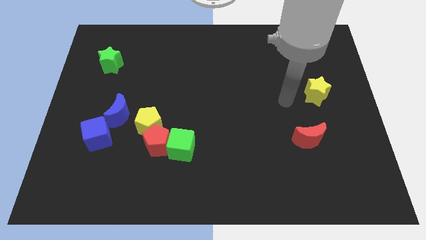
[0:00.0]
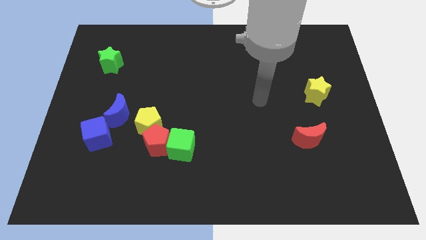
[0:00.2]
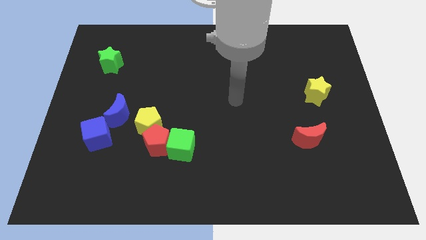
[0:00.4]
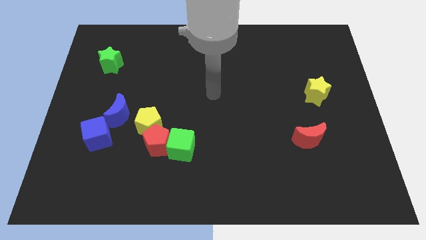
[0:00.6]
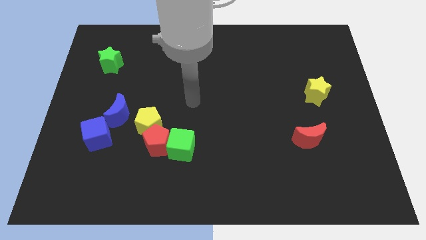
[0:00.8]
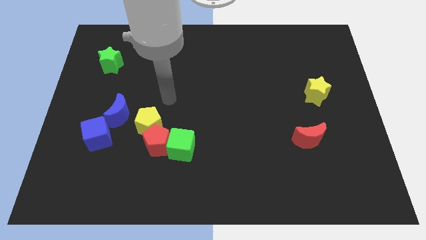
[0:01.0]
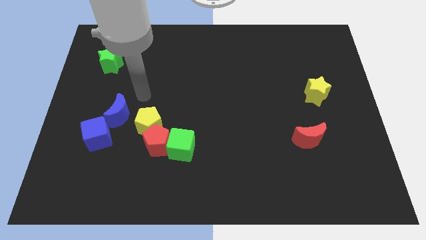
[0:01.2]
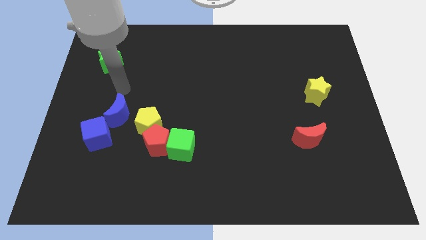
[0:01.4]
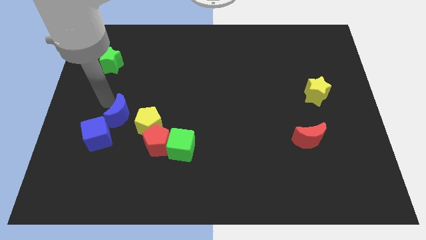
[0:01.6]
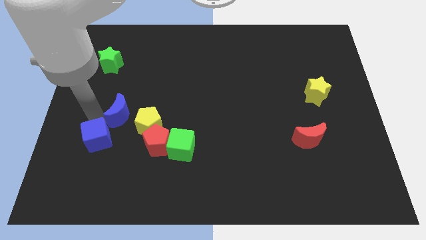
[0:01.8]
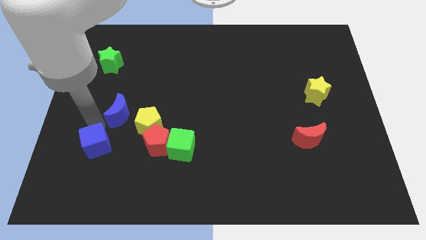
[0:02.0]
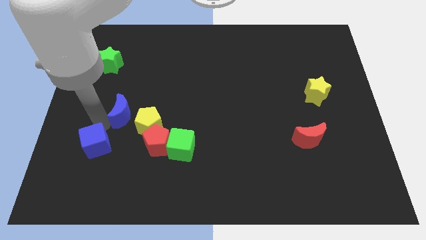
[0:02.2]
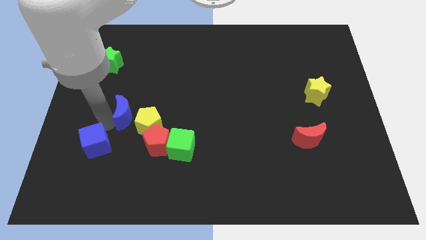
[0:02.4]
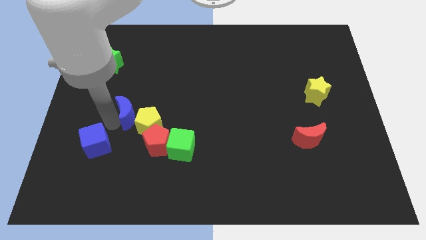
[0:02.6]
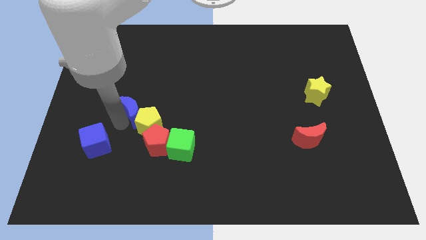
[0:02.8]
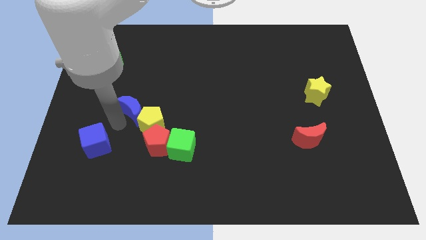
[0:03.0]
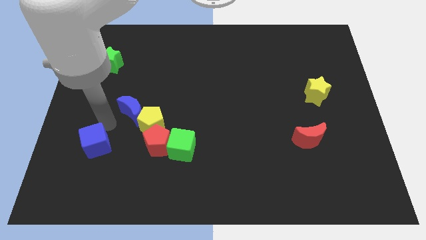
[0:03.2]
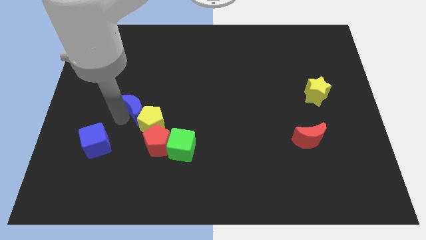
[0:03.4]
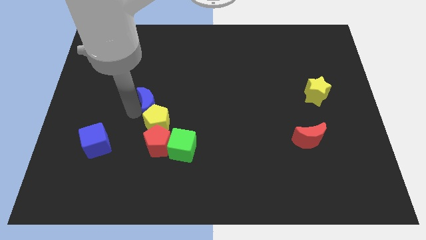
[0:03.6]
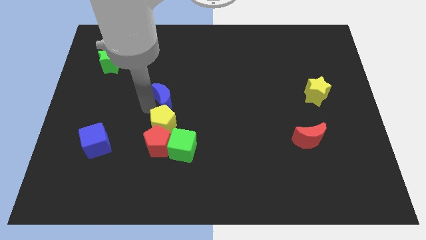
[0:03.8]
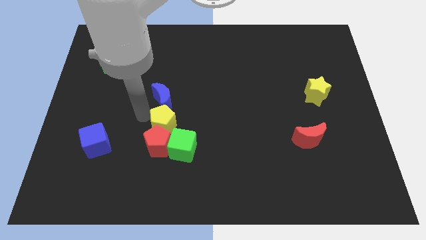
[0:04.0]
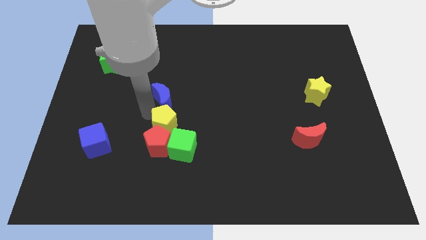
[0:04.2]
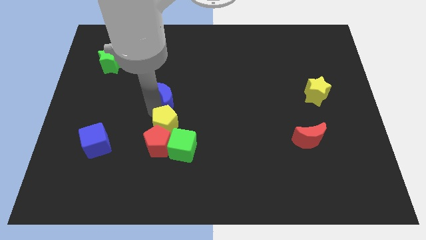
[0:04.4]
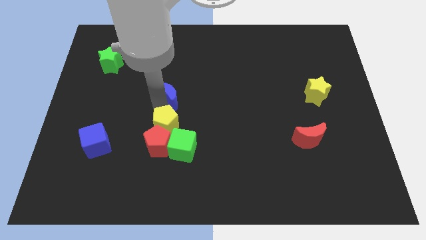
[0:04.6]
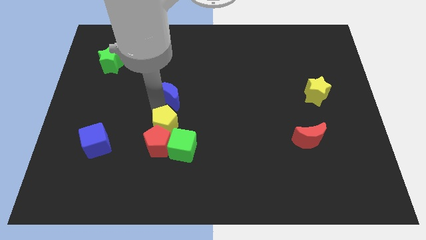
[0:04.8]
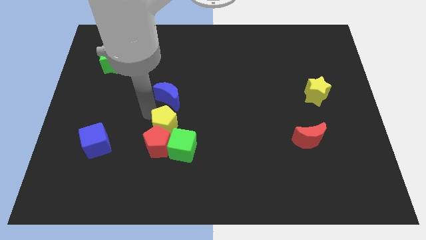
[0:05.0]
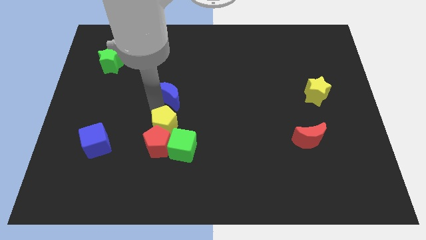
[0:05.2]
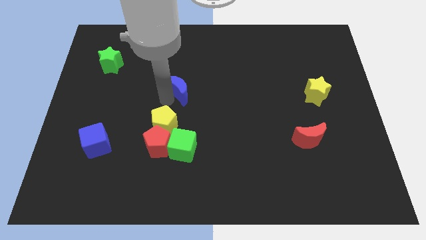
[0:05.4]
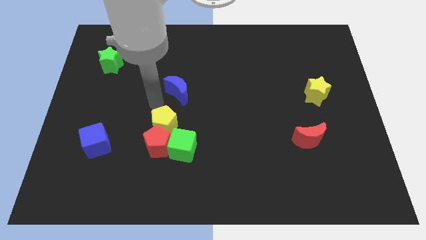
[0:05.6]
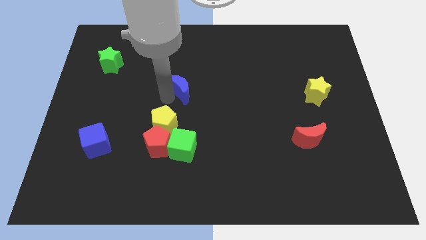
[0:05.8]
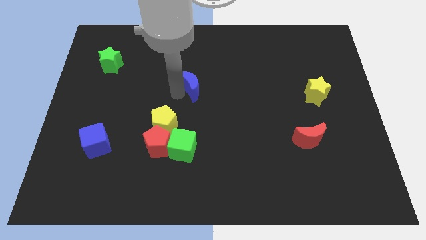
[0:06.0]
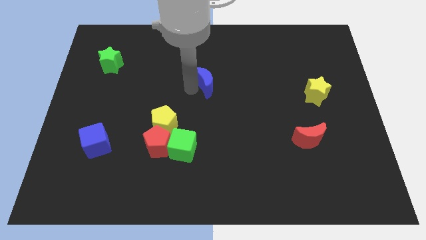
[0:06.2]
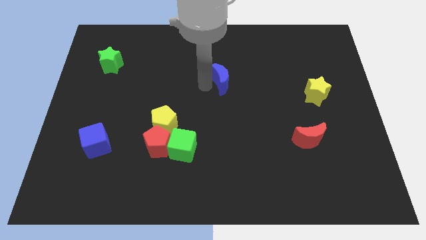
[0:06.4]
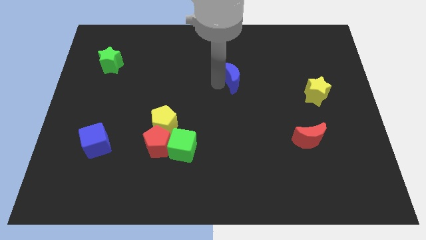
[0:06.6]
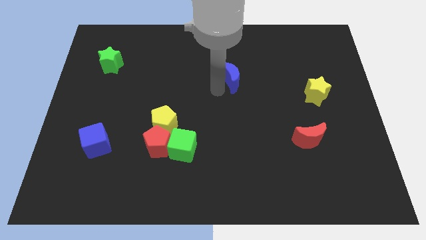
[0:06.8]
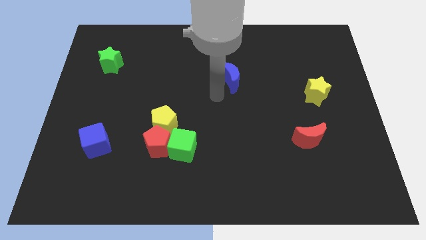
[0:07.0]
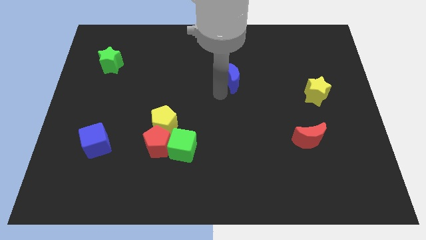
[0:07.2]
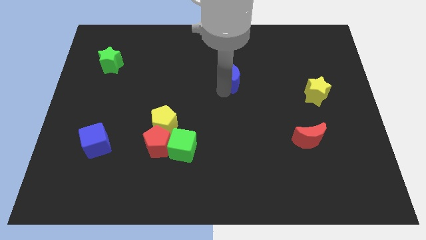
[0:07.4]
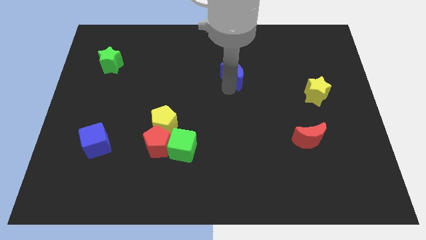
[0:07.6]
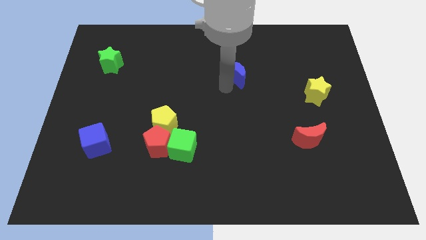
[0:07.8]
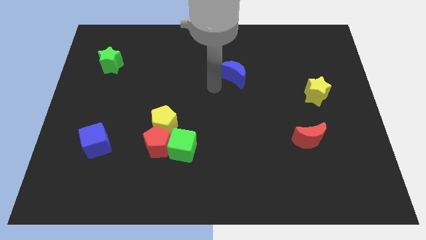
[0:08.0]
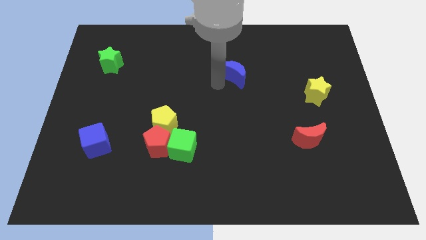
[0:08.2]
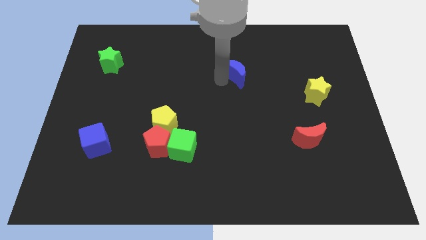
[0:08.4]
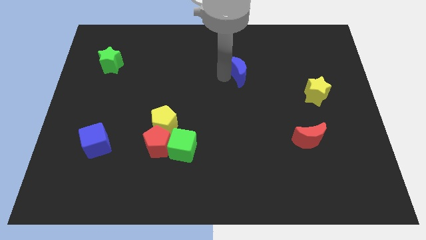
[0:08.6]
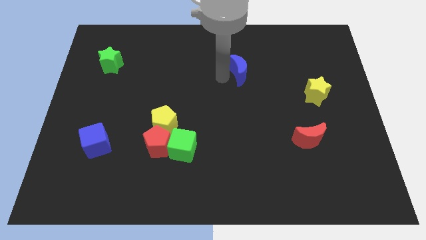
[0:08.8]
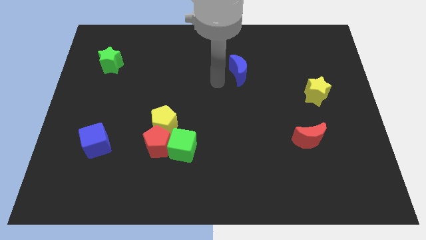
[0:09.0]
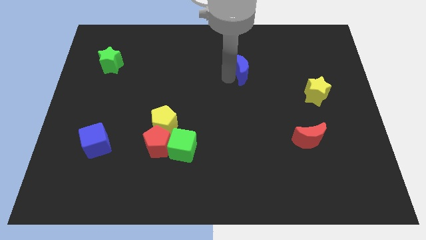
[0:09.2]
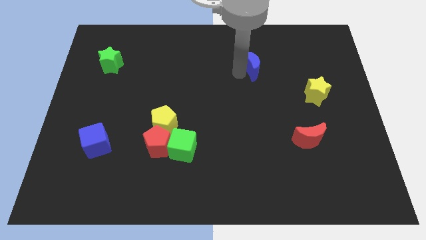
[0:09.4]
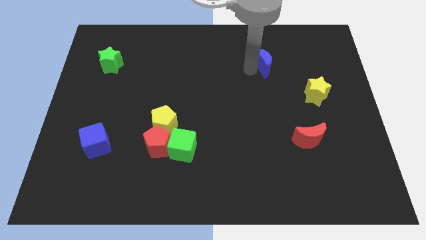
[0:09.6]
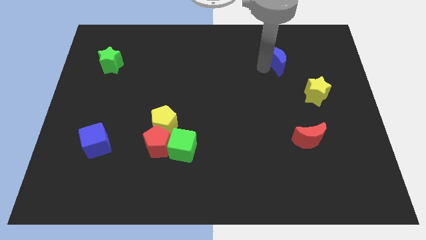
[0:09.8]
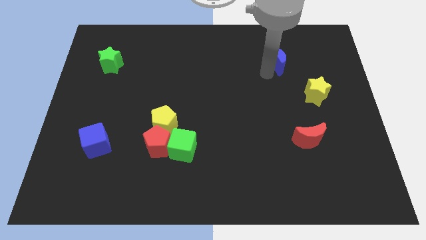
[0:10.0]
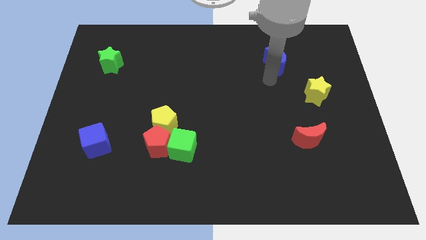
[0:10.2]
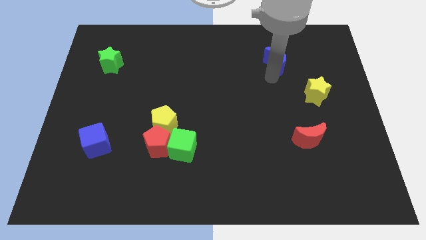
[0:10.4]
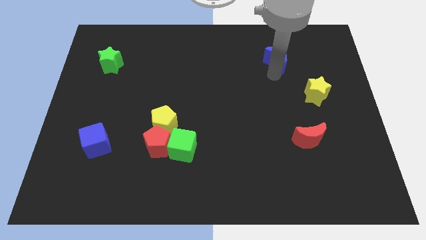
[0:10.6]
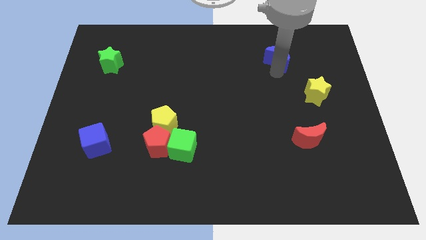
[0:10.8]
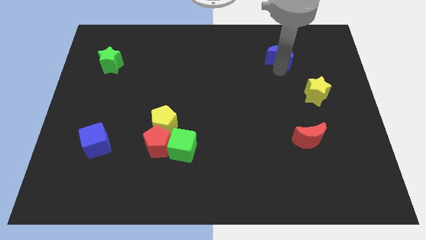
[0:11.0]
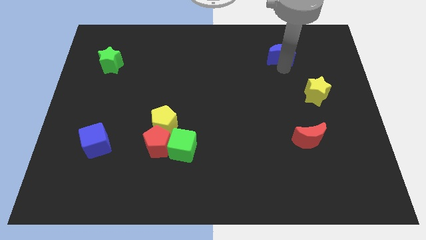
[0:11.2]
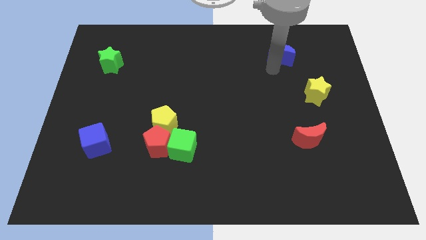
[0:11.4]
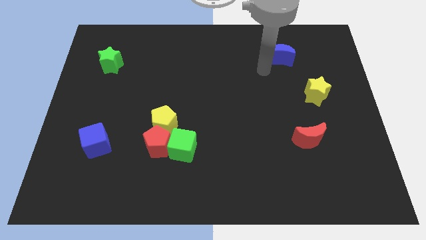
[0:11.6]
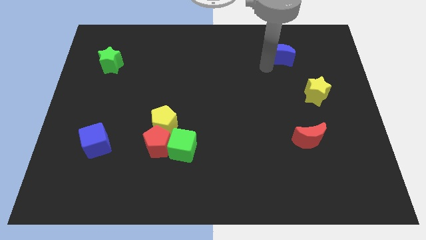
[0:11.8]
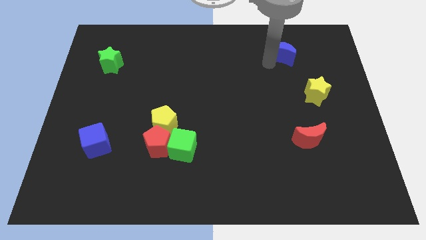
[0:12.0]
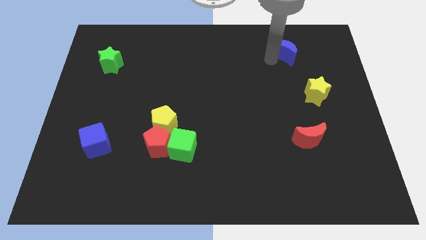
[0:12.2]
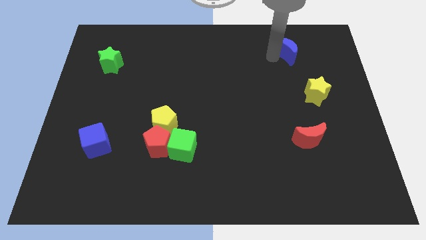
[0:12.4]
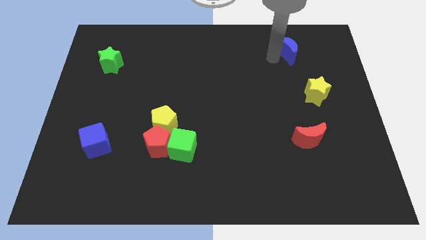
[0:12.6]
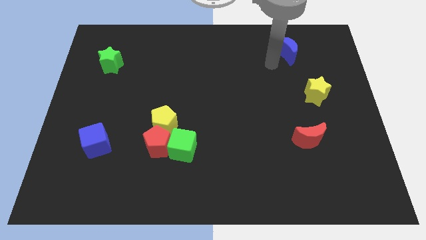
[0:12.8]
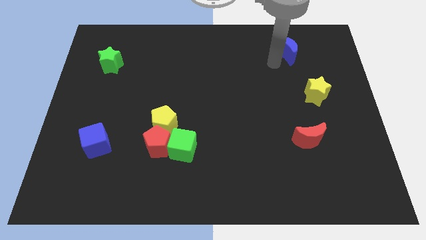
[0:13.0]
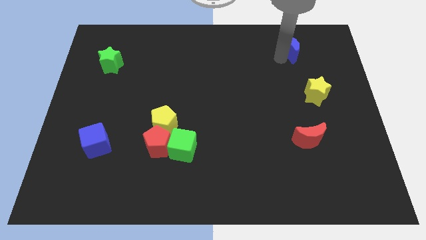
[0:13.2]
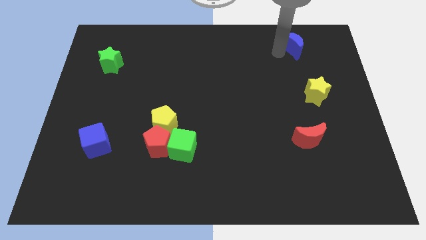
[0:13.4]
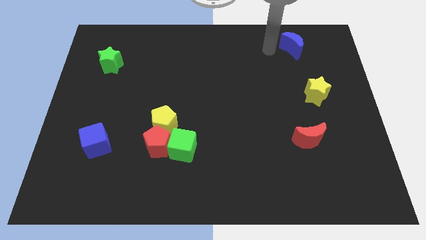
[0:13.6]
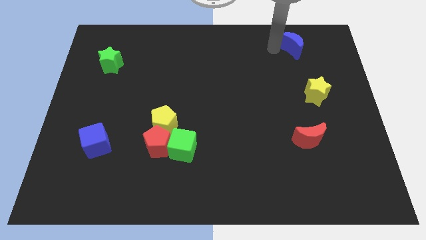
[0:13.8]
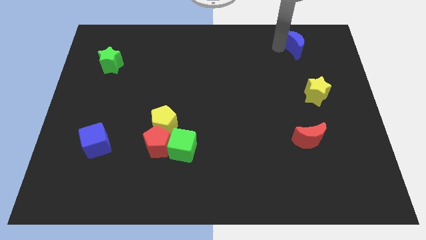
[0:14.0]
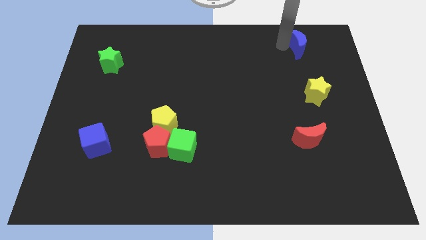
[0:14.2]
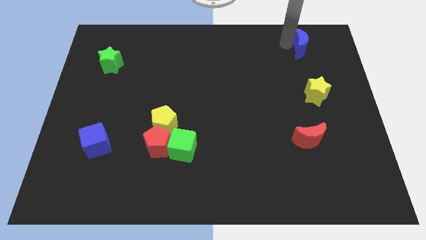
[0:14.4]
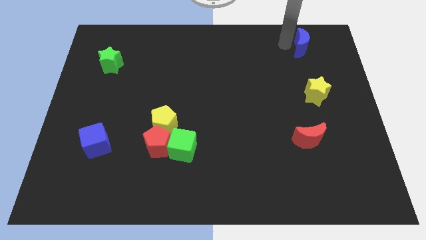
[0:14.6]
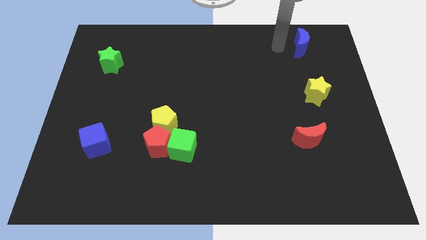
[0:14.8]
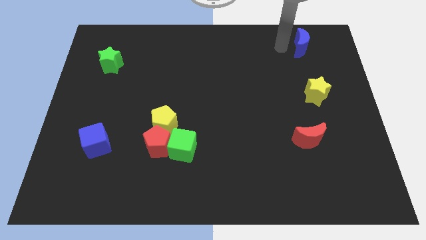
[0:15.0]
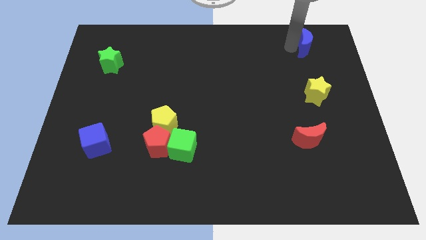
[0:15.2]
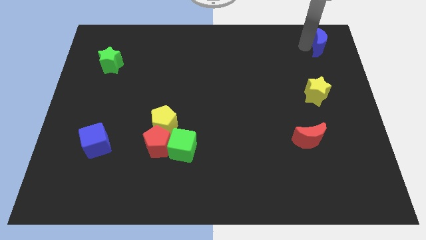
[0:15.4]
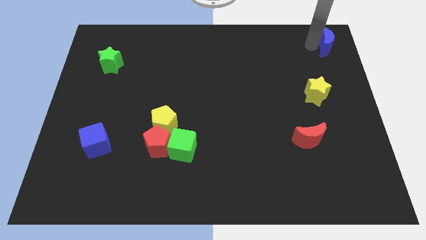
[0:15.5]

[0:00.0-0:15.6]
slide the blue moon to the top right corner
